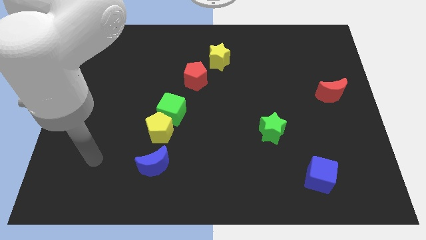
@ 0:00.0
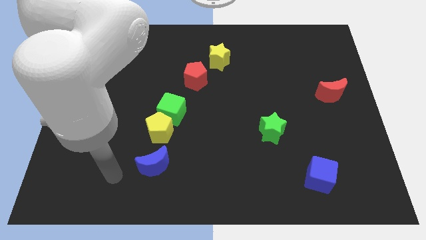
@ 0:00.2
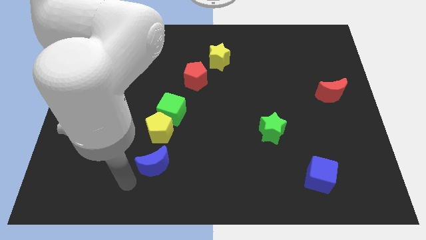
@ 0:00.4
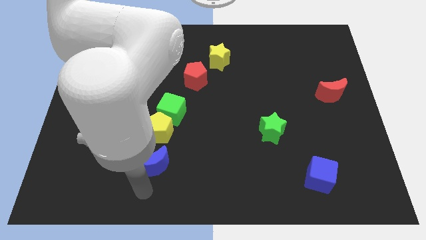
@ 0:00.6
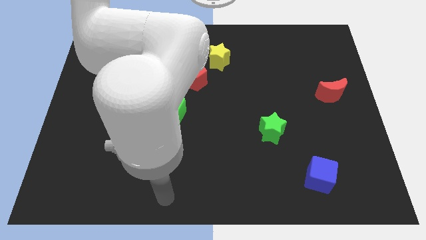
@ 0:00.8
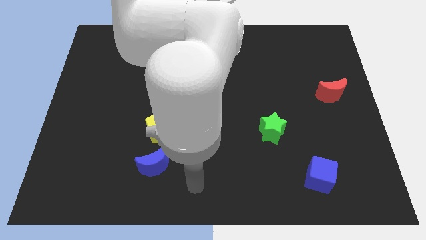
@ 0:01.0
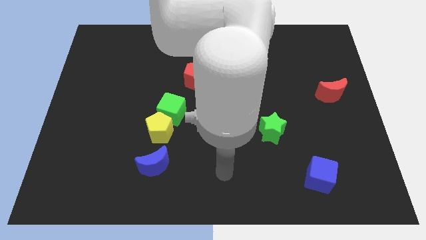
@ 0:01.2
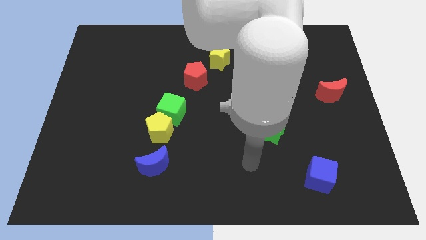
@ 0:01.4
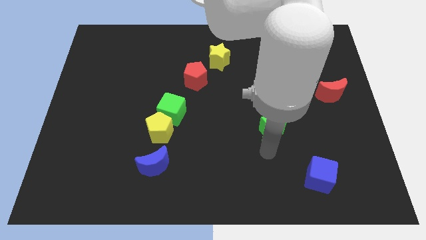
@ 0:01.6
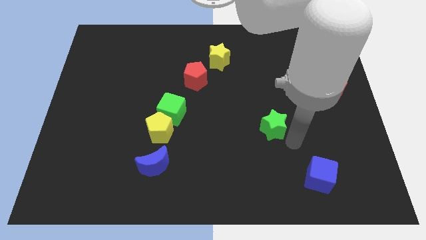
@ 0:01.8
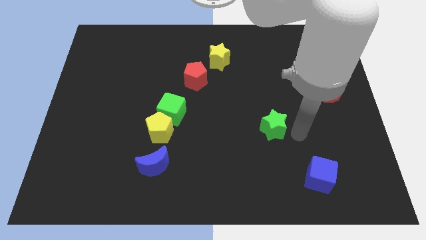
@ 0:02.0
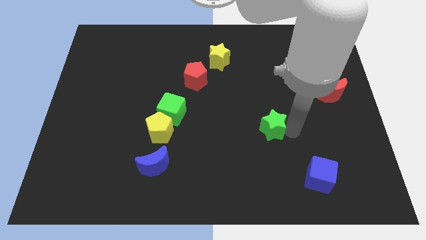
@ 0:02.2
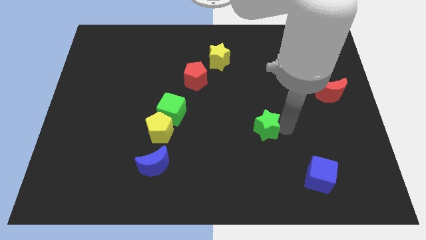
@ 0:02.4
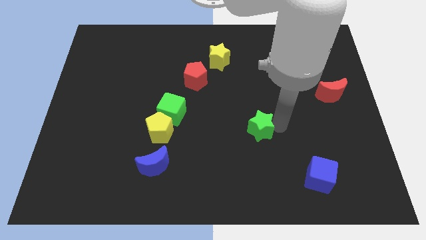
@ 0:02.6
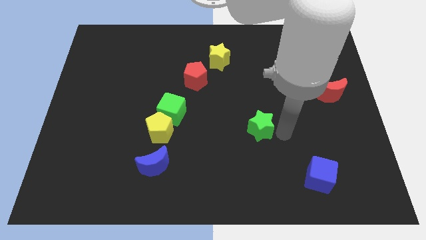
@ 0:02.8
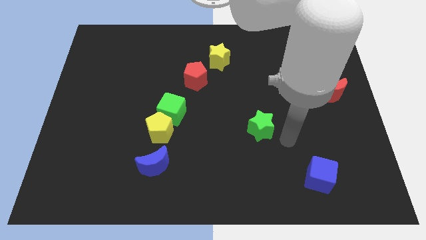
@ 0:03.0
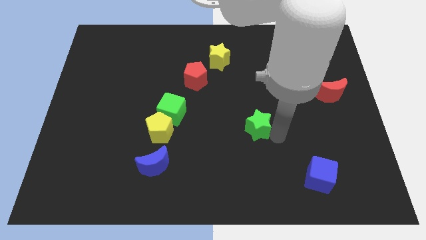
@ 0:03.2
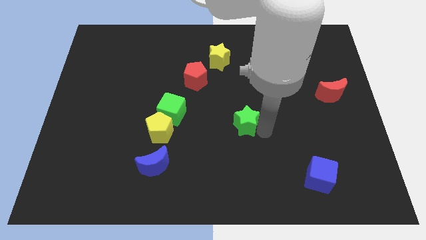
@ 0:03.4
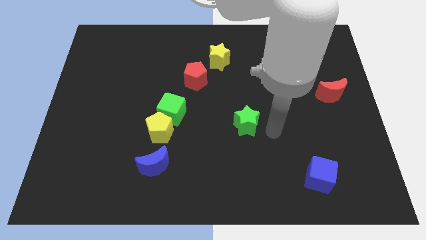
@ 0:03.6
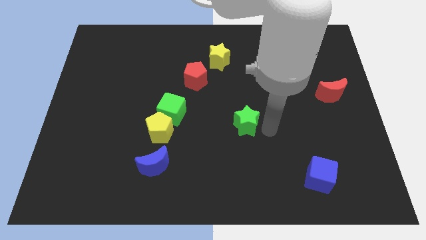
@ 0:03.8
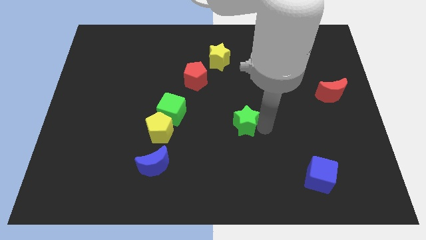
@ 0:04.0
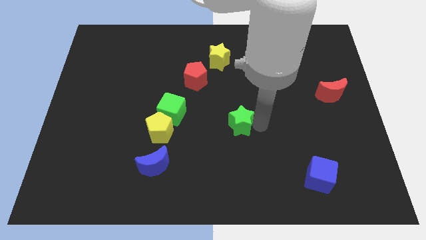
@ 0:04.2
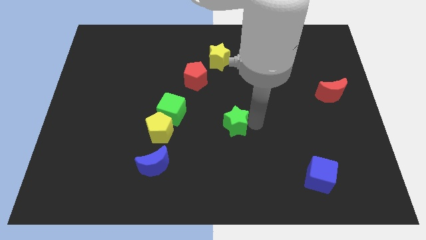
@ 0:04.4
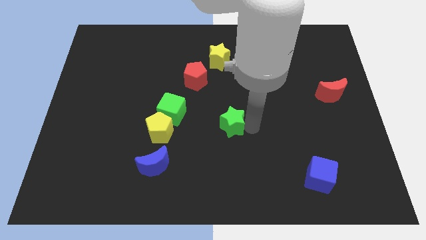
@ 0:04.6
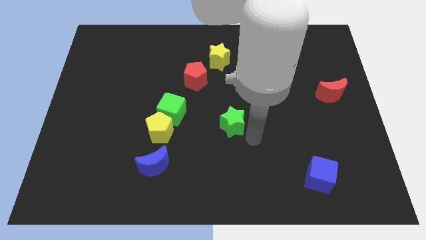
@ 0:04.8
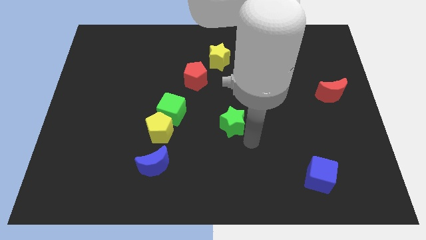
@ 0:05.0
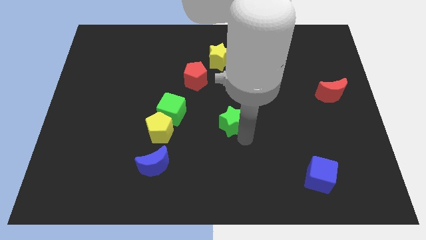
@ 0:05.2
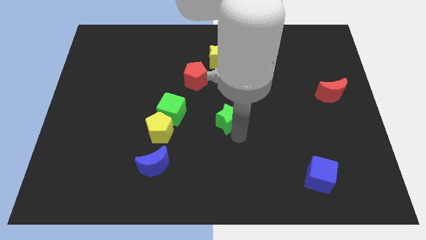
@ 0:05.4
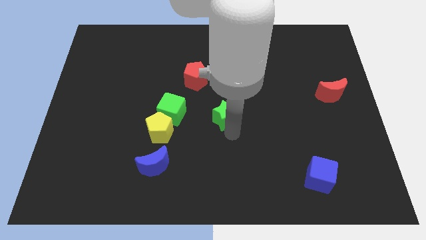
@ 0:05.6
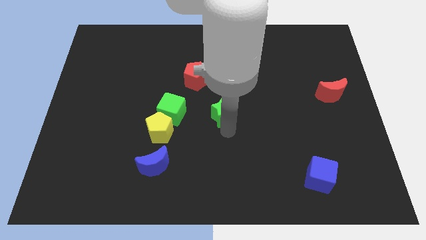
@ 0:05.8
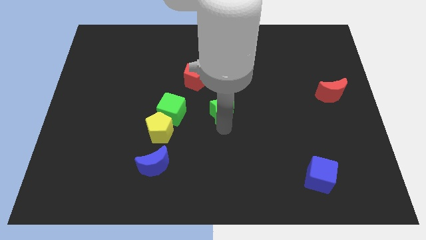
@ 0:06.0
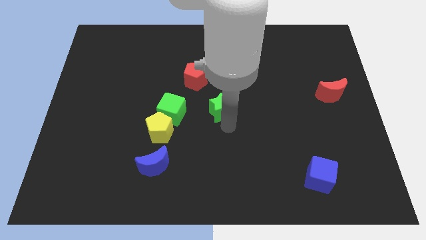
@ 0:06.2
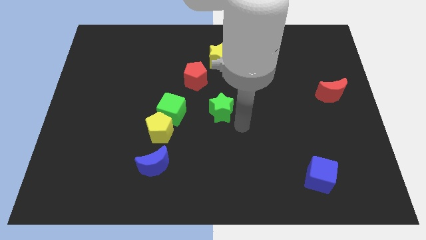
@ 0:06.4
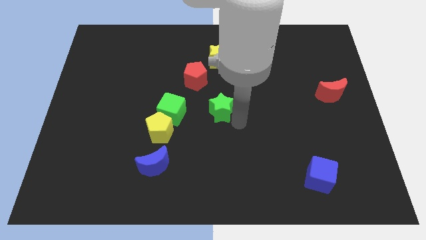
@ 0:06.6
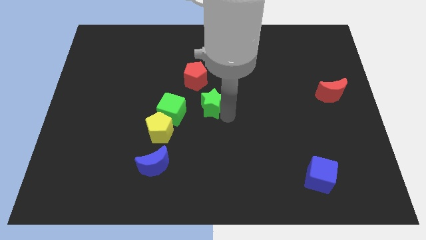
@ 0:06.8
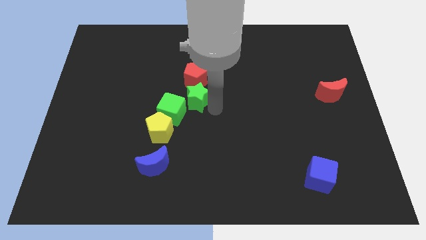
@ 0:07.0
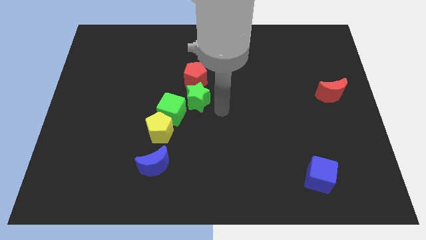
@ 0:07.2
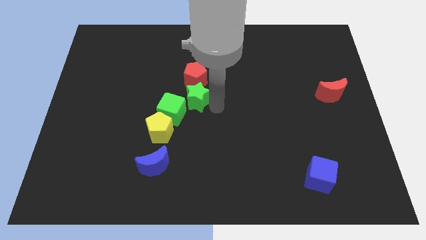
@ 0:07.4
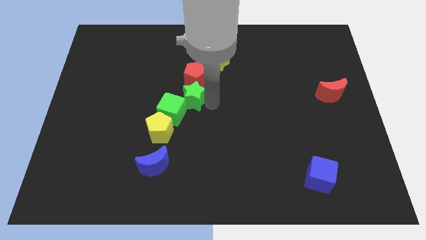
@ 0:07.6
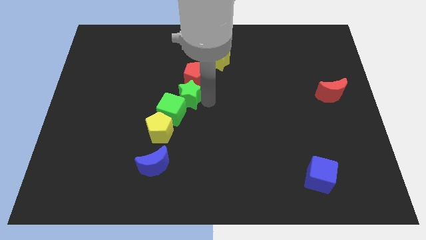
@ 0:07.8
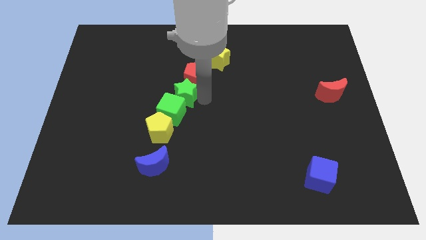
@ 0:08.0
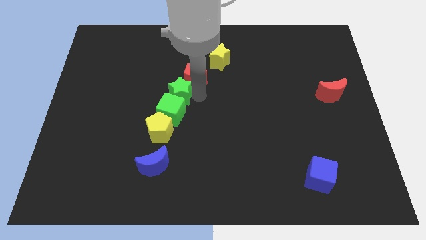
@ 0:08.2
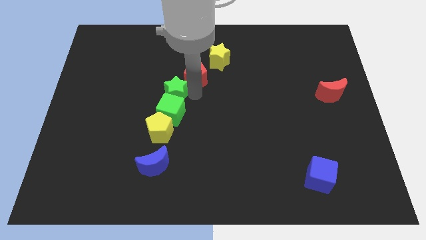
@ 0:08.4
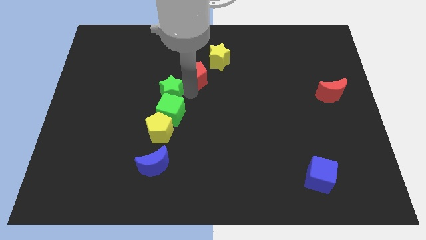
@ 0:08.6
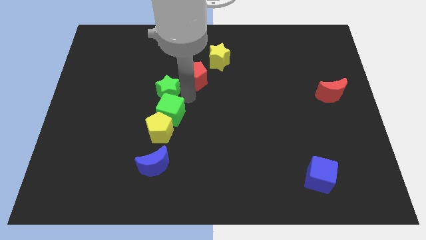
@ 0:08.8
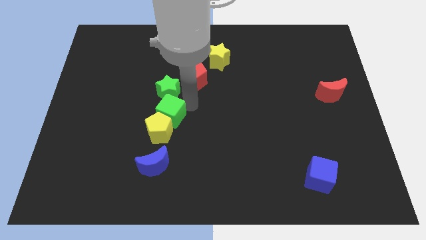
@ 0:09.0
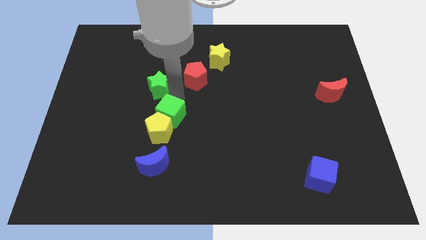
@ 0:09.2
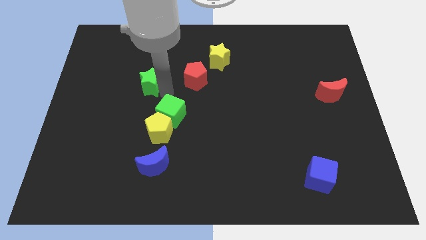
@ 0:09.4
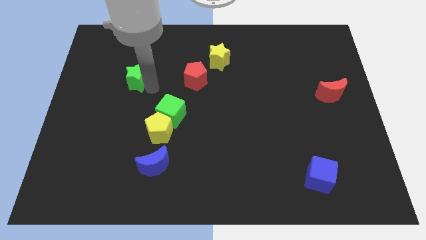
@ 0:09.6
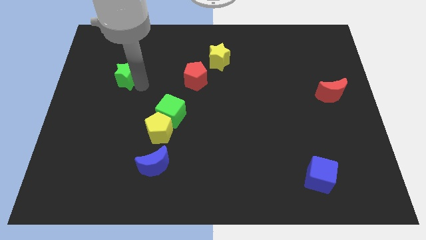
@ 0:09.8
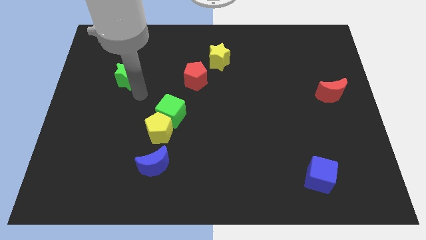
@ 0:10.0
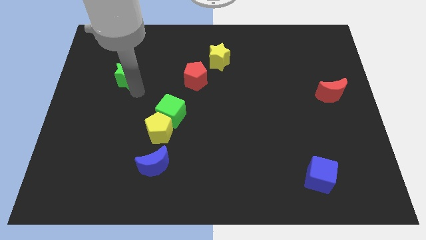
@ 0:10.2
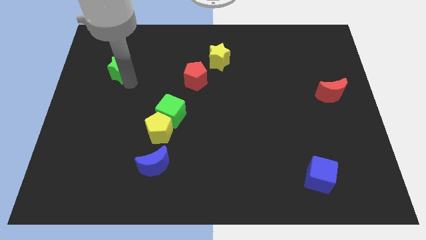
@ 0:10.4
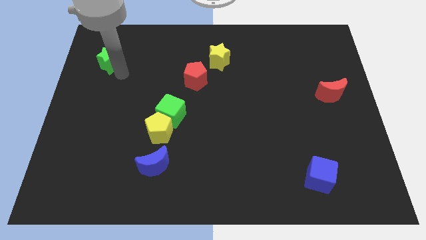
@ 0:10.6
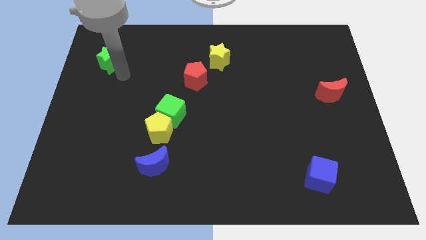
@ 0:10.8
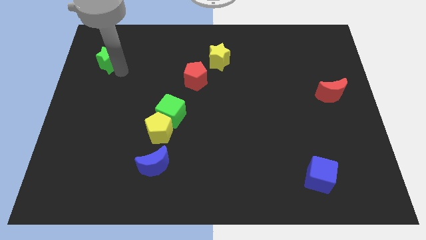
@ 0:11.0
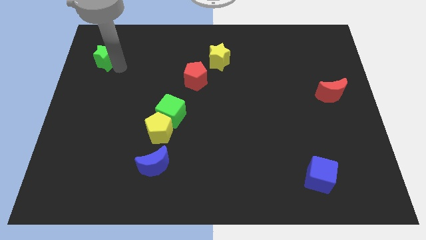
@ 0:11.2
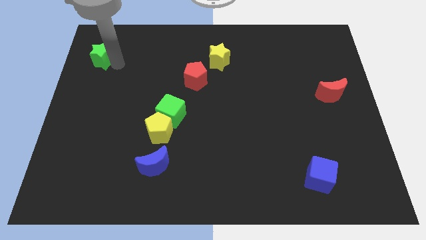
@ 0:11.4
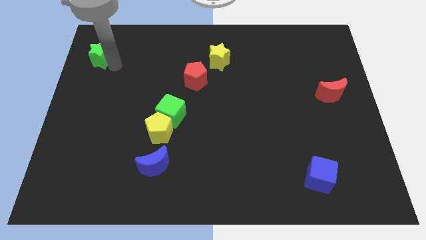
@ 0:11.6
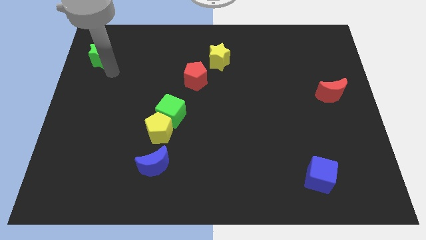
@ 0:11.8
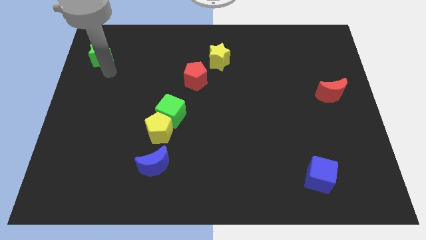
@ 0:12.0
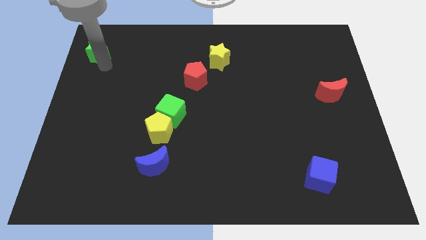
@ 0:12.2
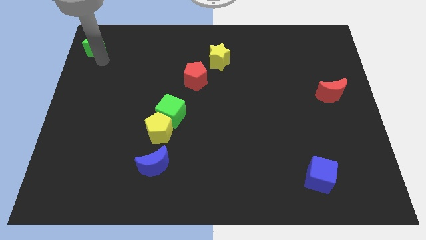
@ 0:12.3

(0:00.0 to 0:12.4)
slide the green star to the top left corner
